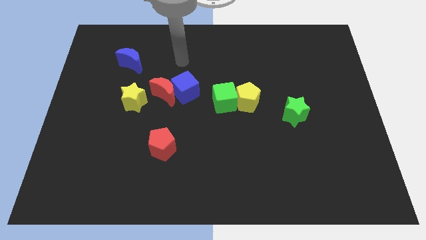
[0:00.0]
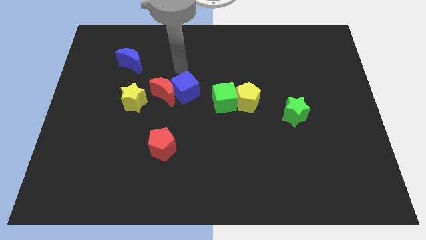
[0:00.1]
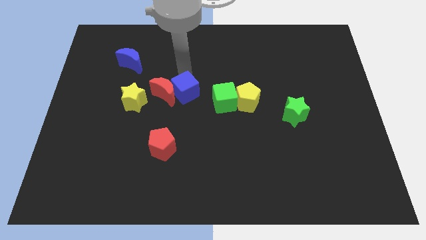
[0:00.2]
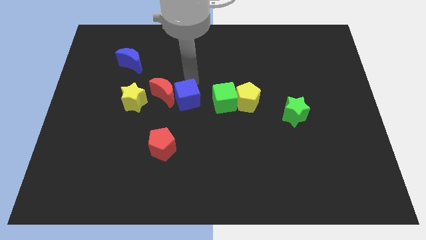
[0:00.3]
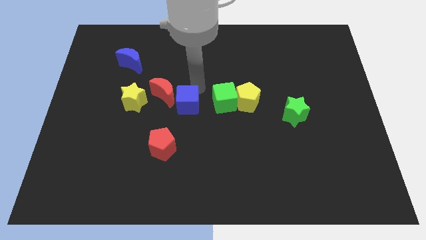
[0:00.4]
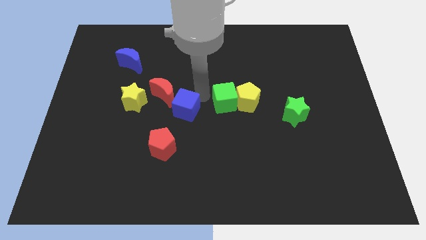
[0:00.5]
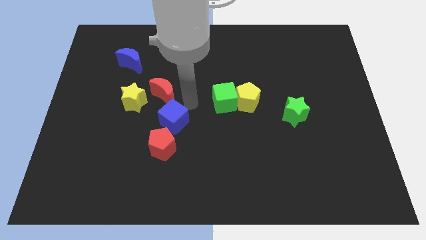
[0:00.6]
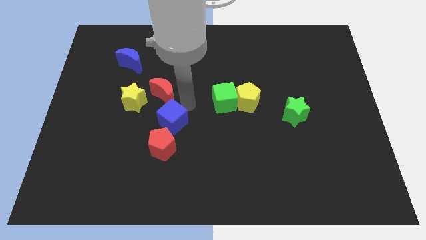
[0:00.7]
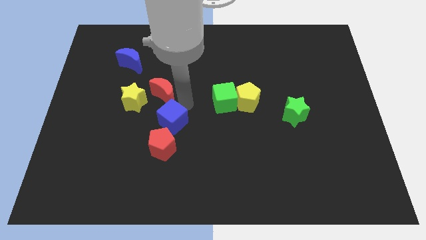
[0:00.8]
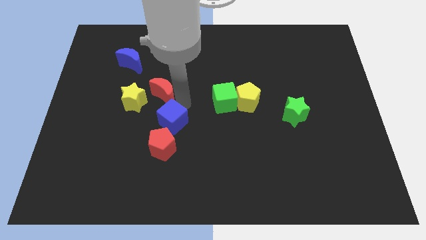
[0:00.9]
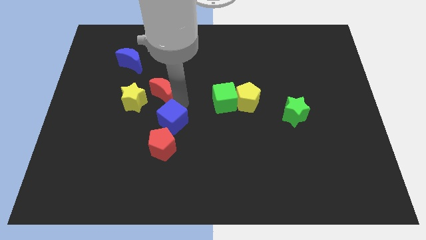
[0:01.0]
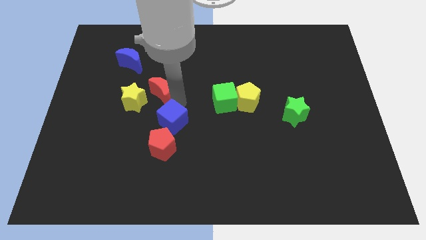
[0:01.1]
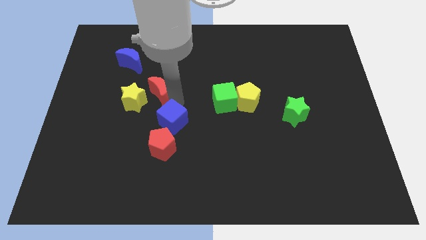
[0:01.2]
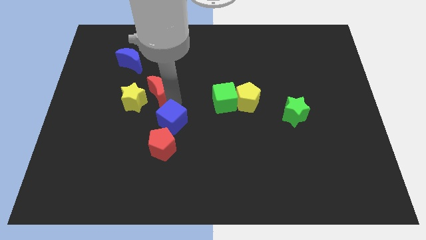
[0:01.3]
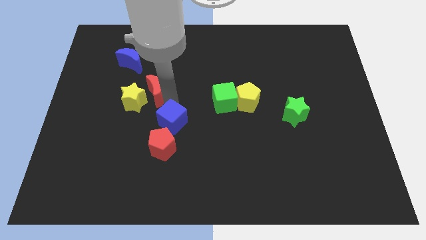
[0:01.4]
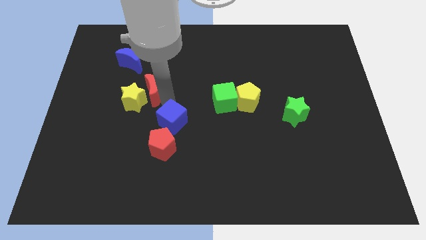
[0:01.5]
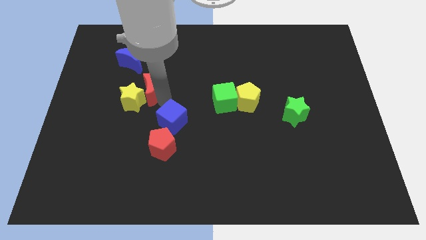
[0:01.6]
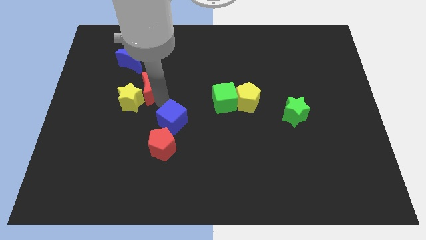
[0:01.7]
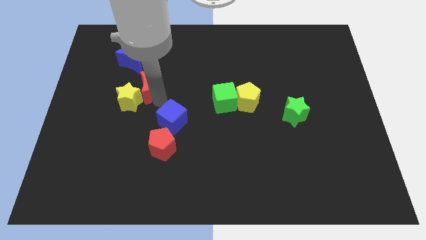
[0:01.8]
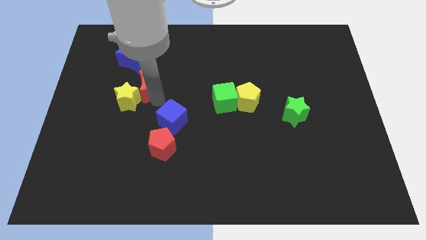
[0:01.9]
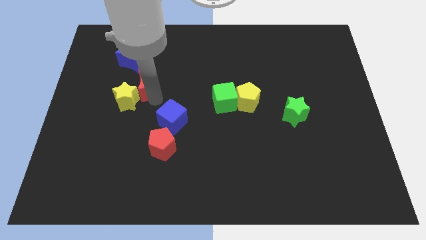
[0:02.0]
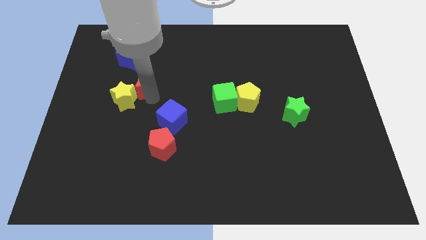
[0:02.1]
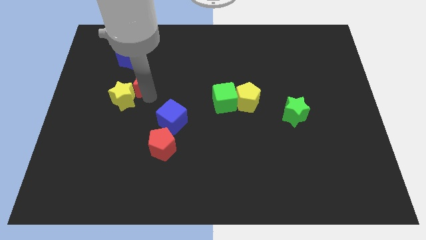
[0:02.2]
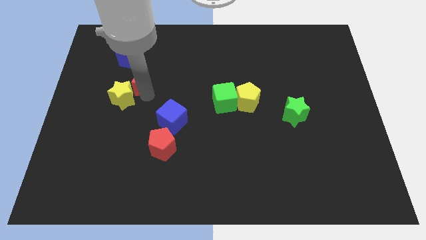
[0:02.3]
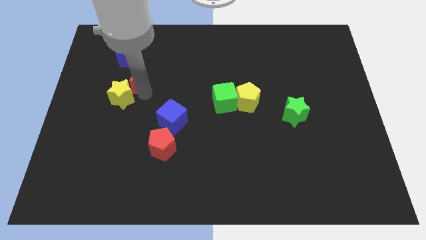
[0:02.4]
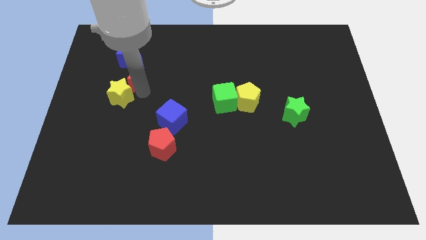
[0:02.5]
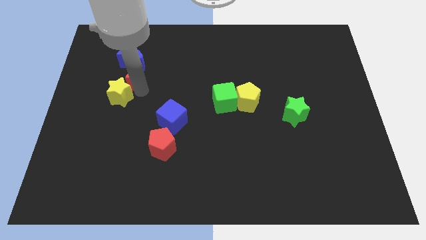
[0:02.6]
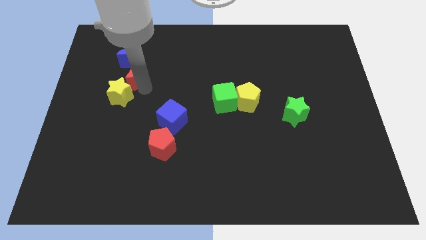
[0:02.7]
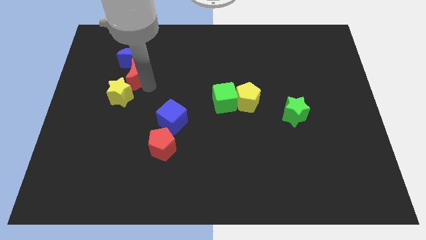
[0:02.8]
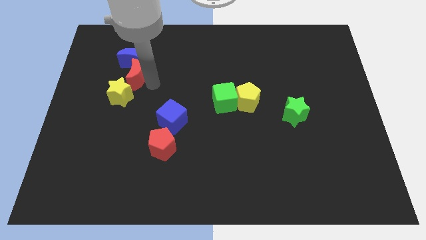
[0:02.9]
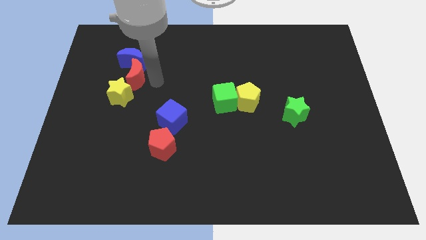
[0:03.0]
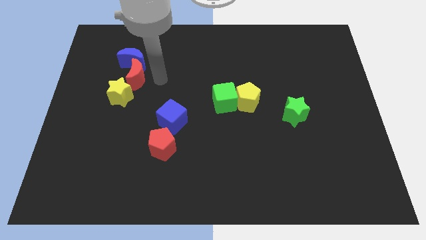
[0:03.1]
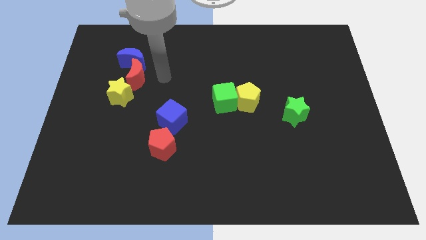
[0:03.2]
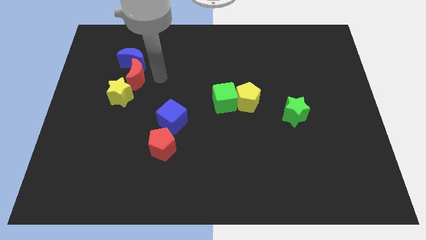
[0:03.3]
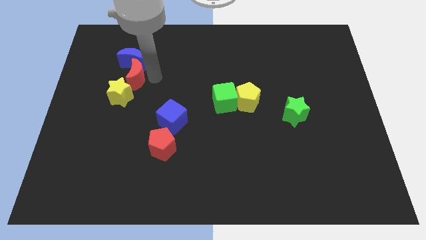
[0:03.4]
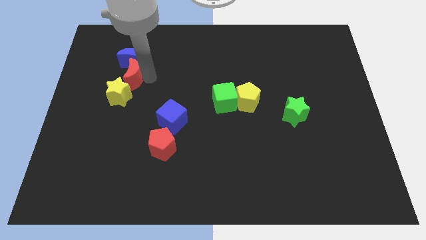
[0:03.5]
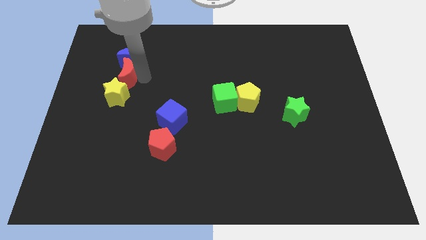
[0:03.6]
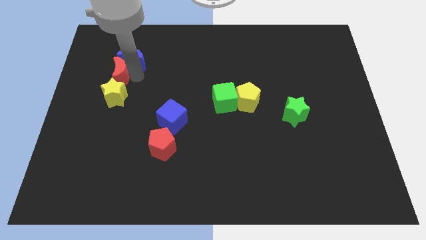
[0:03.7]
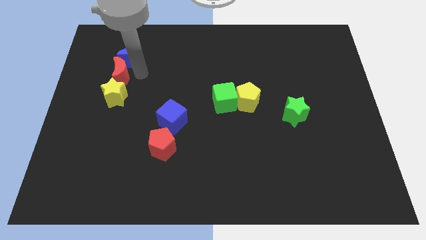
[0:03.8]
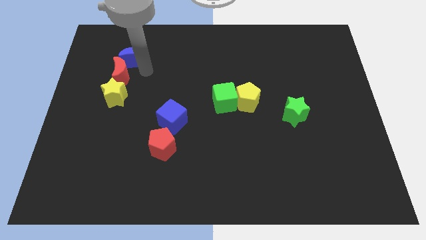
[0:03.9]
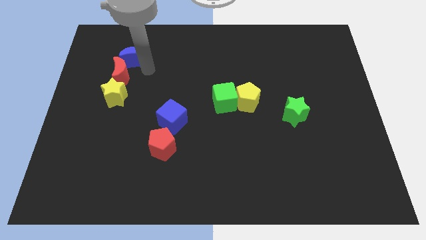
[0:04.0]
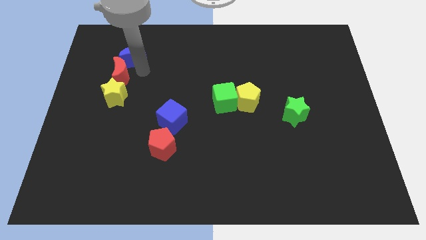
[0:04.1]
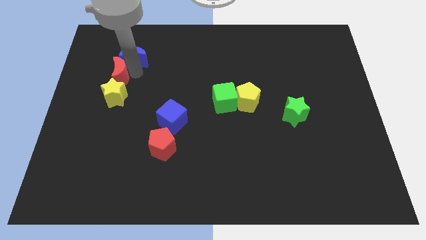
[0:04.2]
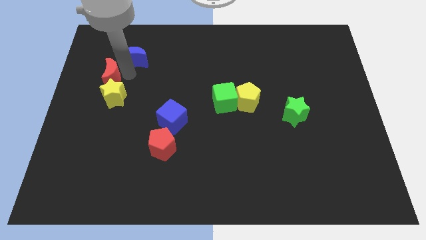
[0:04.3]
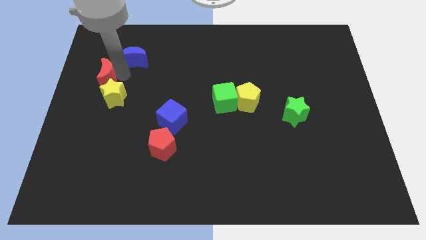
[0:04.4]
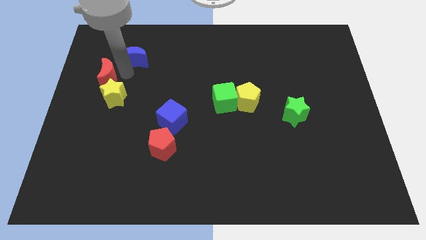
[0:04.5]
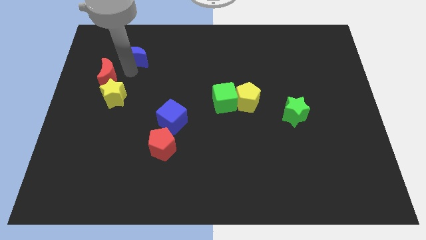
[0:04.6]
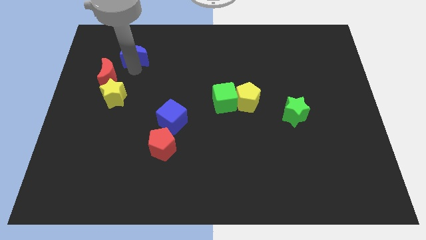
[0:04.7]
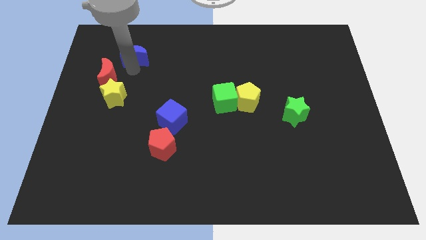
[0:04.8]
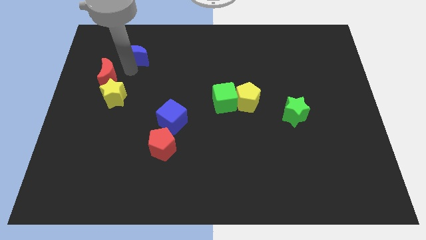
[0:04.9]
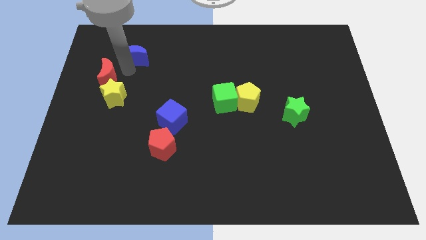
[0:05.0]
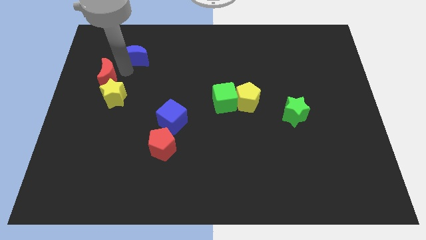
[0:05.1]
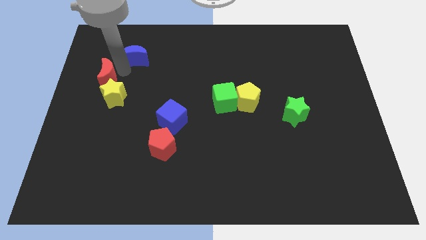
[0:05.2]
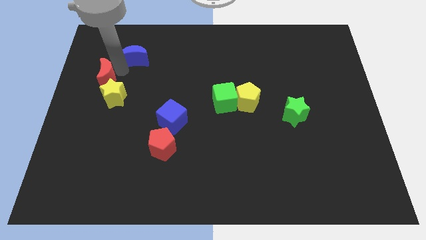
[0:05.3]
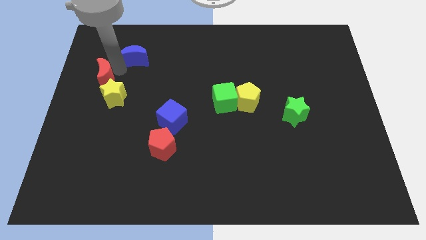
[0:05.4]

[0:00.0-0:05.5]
slide the red moon to the center left
